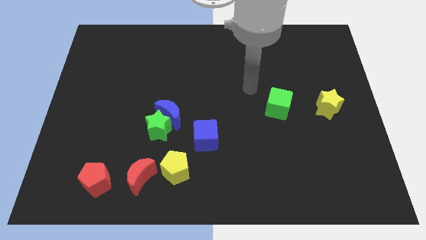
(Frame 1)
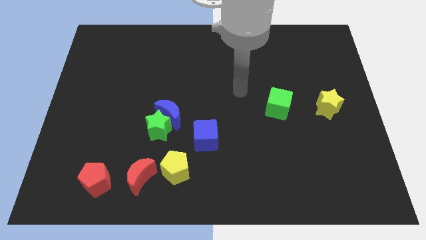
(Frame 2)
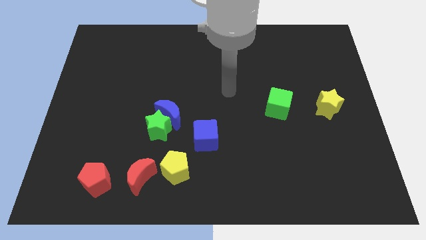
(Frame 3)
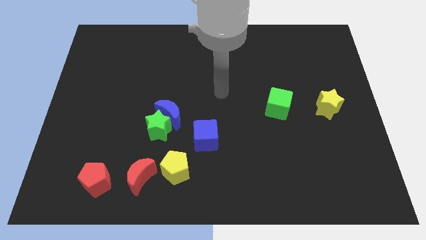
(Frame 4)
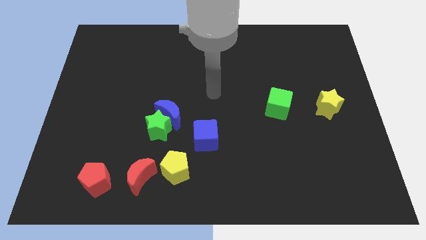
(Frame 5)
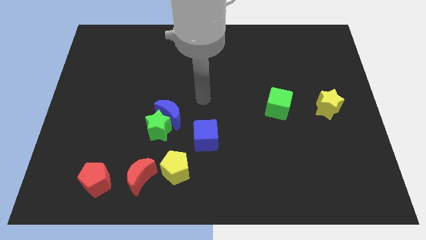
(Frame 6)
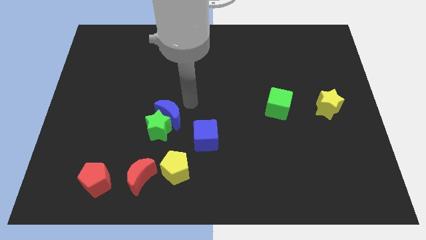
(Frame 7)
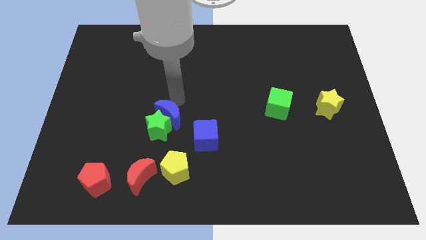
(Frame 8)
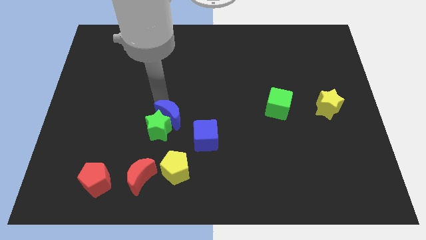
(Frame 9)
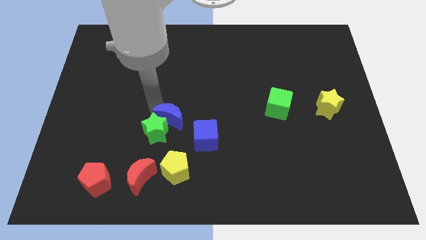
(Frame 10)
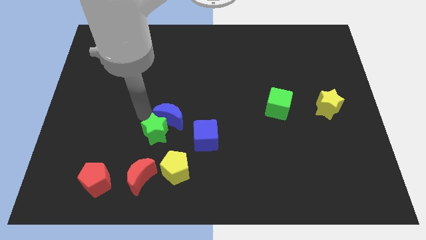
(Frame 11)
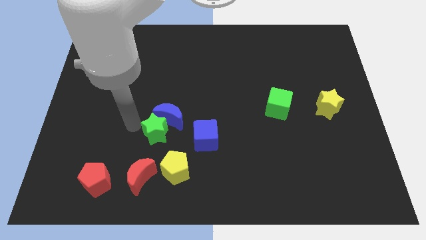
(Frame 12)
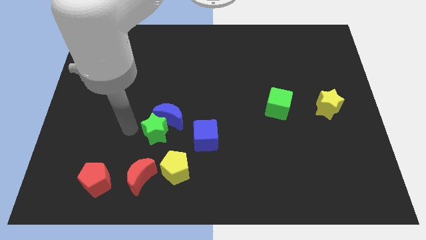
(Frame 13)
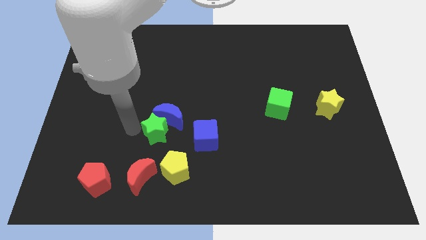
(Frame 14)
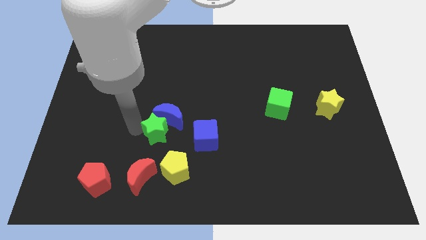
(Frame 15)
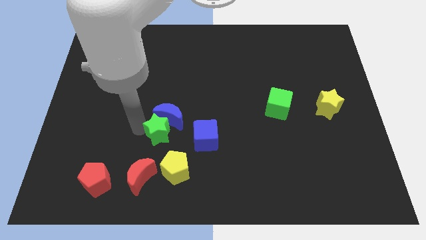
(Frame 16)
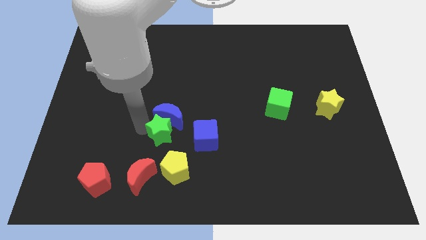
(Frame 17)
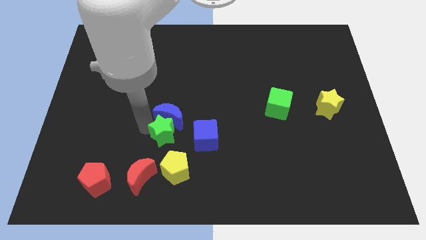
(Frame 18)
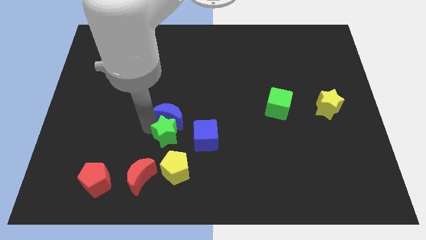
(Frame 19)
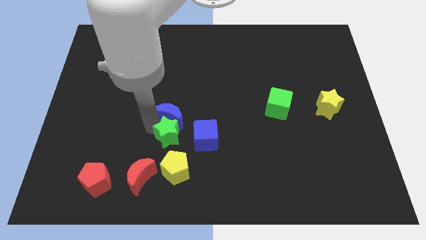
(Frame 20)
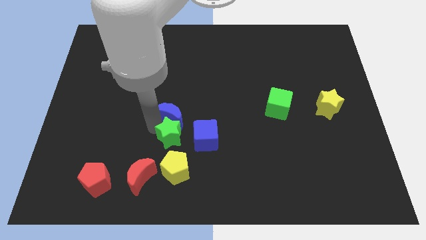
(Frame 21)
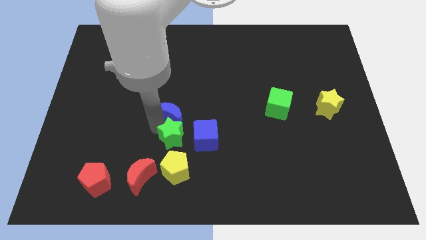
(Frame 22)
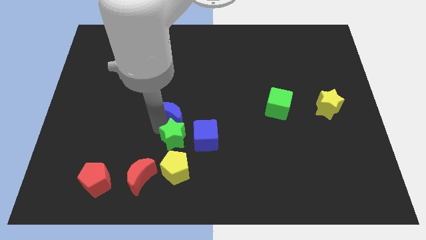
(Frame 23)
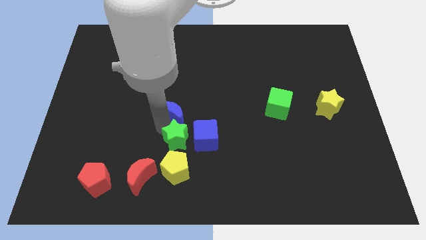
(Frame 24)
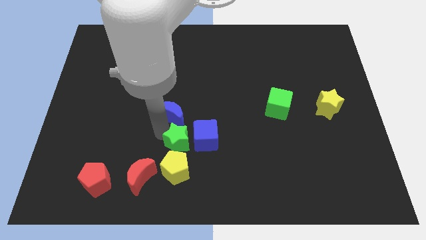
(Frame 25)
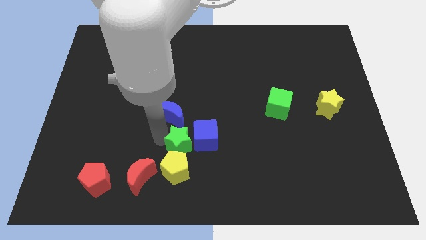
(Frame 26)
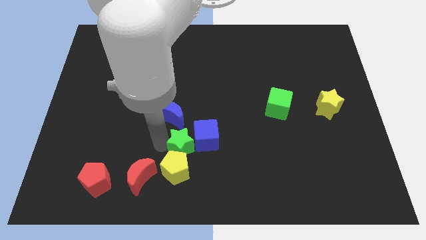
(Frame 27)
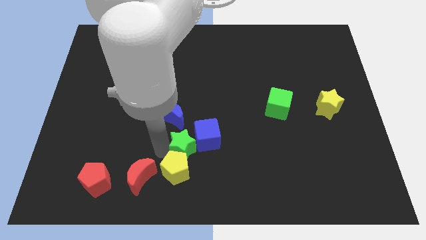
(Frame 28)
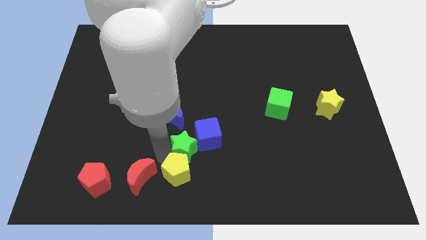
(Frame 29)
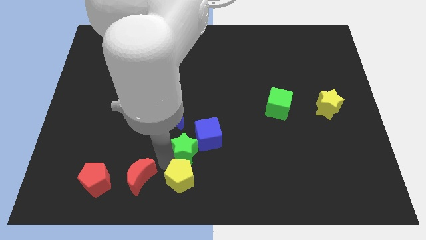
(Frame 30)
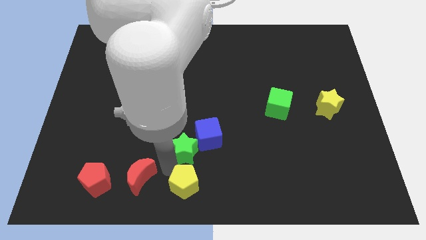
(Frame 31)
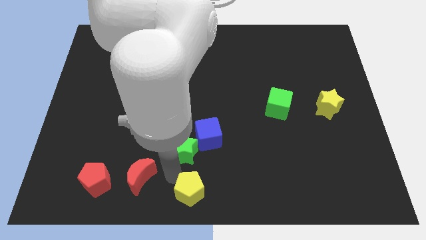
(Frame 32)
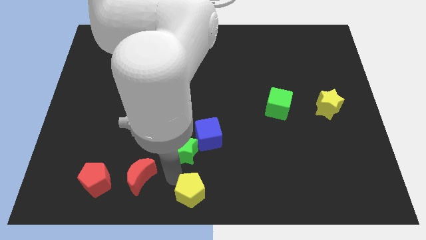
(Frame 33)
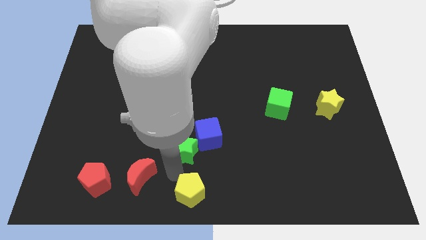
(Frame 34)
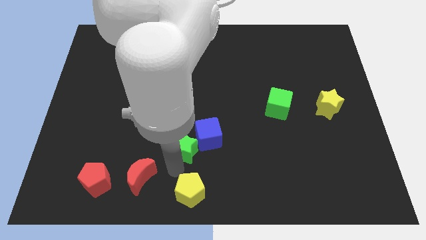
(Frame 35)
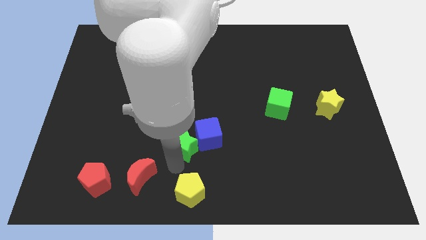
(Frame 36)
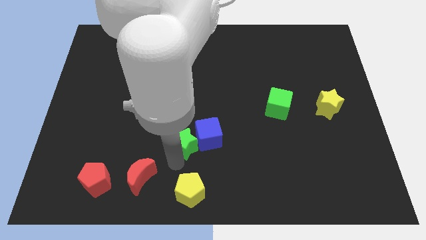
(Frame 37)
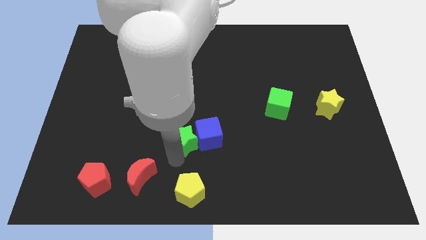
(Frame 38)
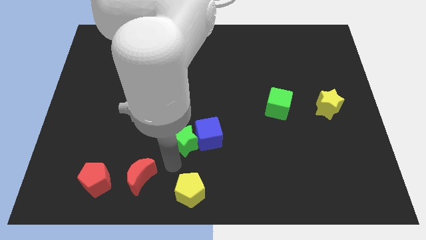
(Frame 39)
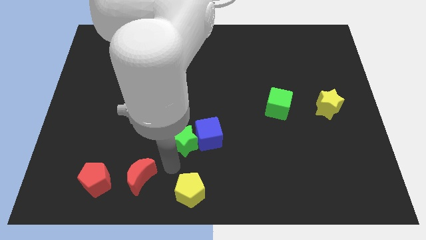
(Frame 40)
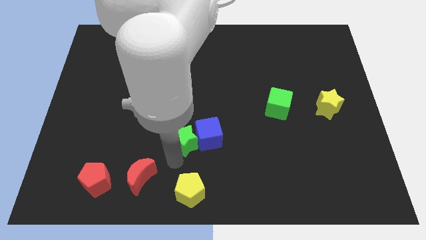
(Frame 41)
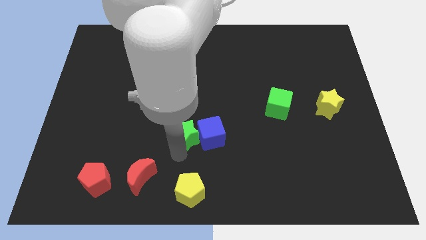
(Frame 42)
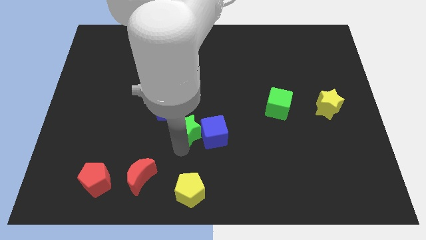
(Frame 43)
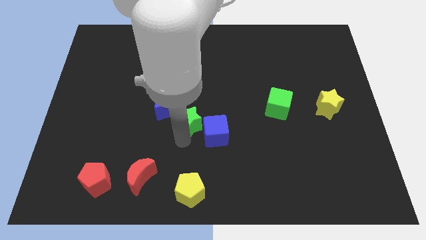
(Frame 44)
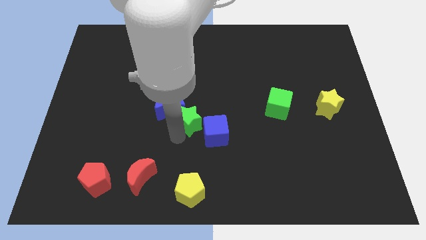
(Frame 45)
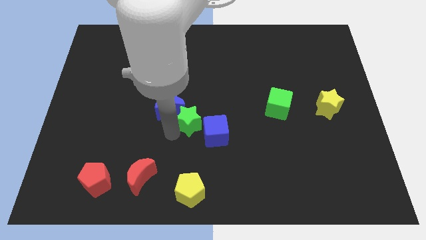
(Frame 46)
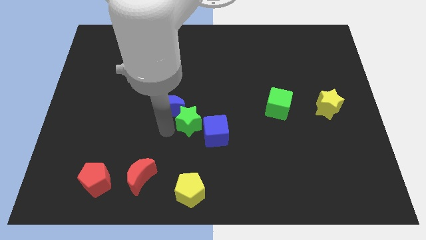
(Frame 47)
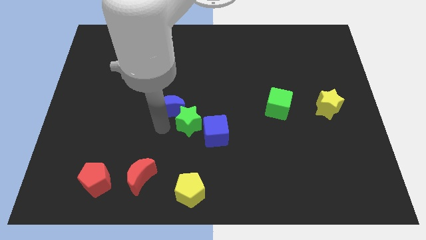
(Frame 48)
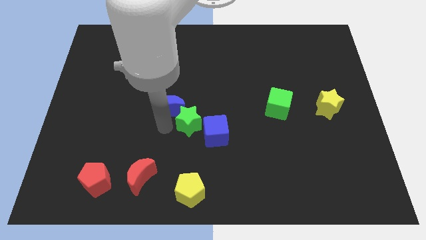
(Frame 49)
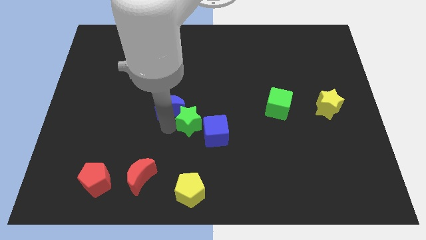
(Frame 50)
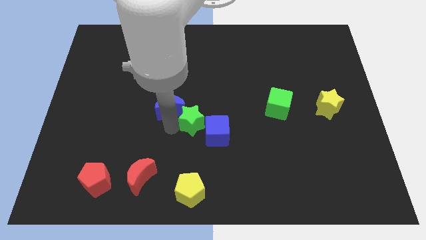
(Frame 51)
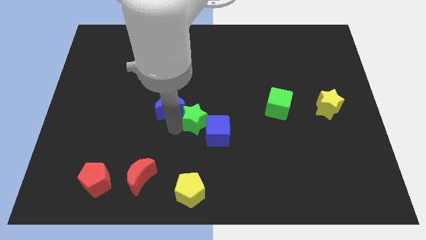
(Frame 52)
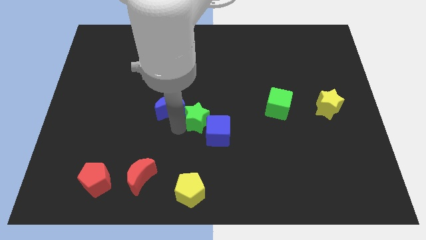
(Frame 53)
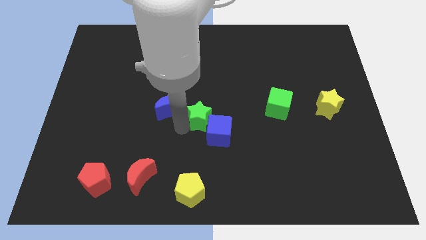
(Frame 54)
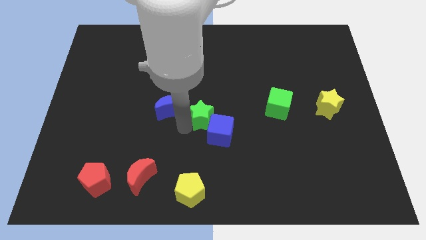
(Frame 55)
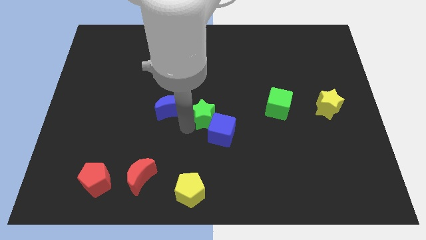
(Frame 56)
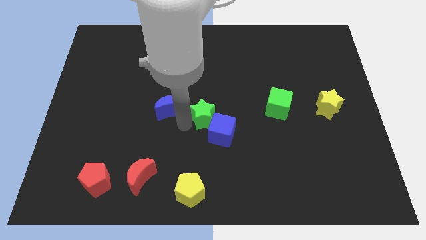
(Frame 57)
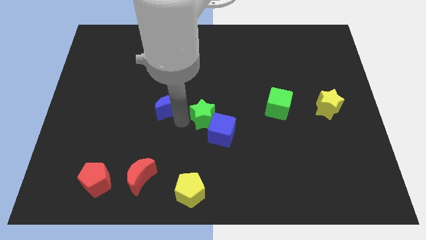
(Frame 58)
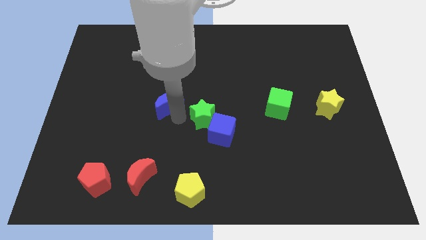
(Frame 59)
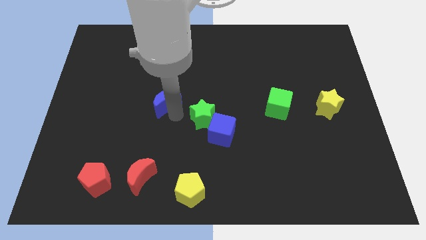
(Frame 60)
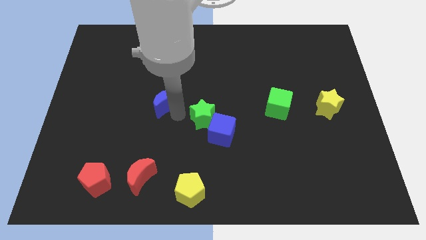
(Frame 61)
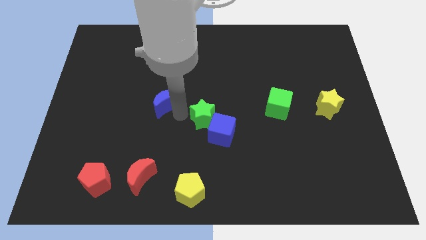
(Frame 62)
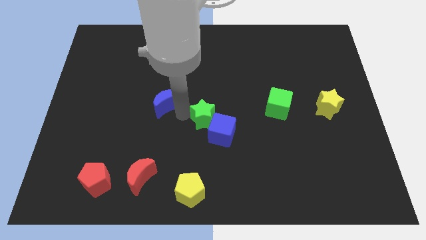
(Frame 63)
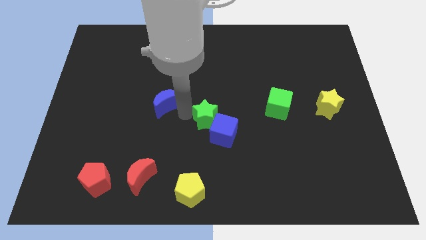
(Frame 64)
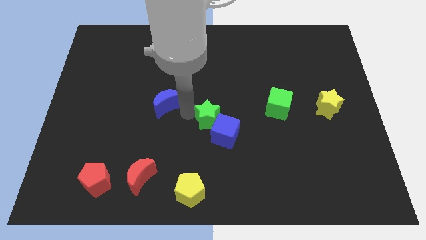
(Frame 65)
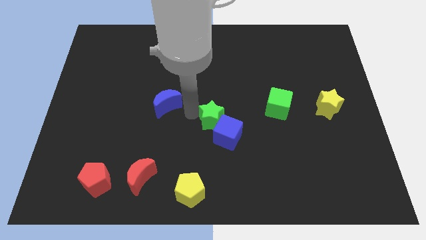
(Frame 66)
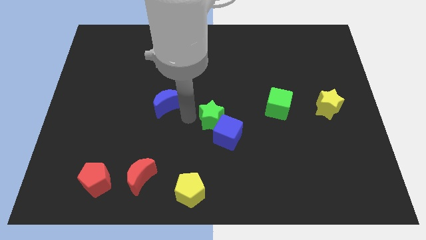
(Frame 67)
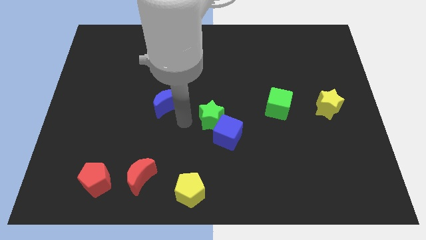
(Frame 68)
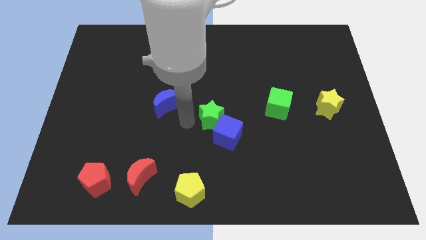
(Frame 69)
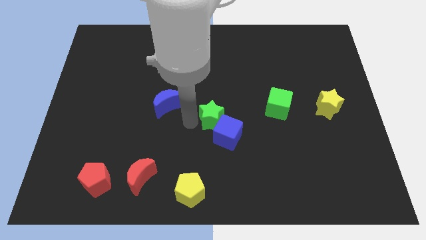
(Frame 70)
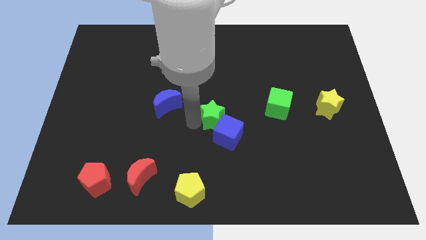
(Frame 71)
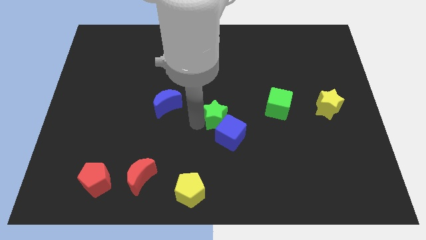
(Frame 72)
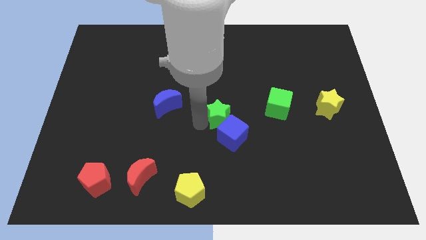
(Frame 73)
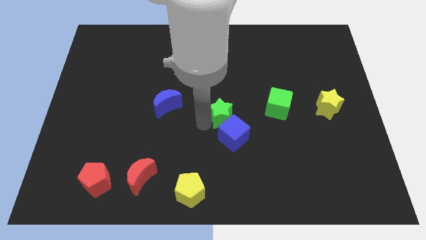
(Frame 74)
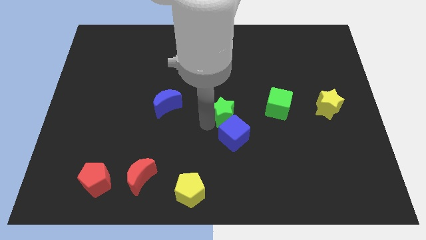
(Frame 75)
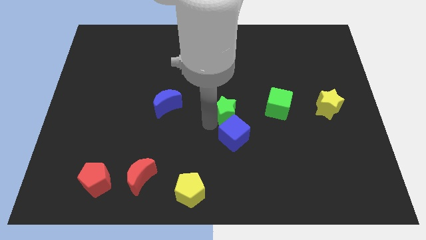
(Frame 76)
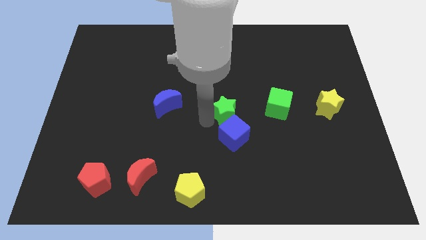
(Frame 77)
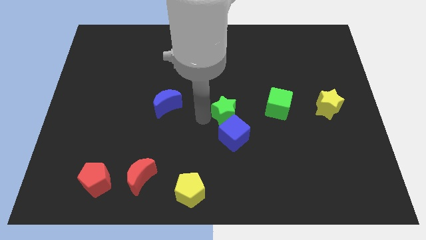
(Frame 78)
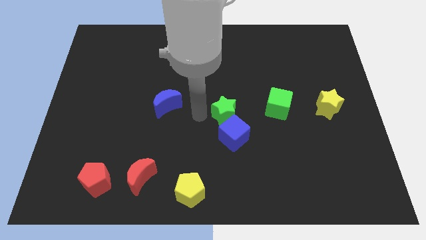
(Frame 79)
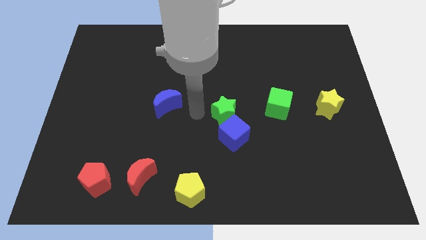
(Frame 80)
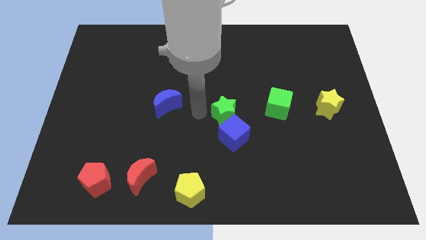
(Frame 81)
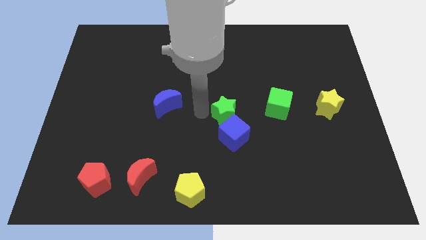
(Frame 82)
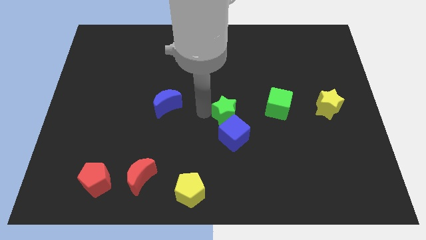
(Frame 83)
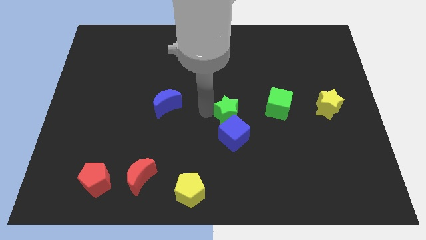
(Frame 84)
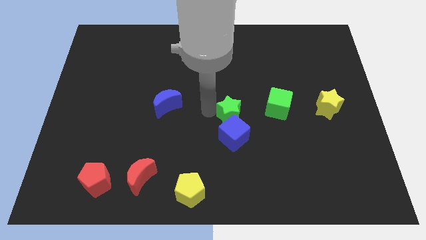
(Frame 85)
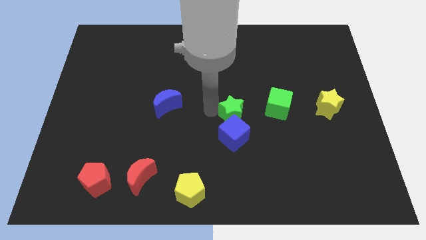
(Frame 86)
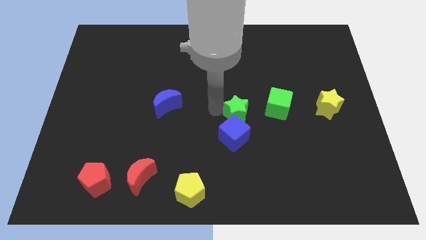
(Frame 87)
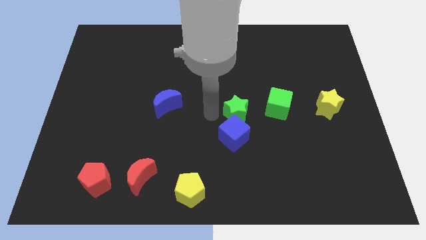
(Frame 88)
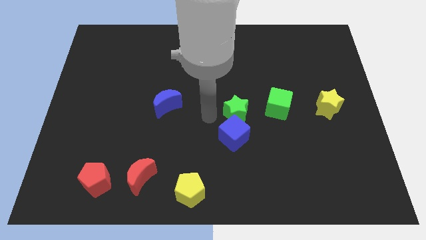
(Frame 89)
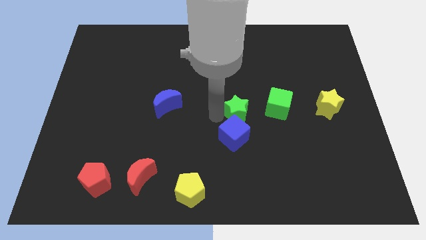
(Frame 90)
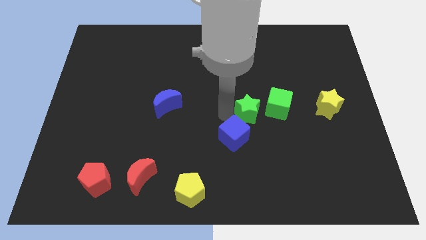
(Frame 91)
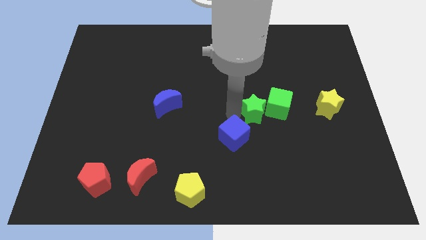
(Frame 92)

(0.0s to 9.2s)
push the green star towards the green cube
